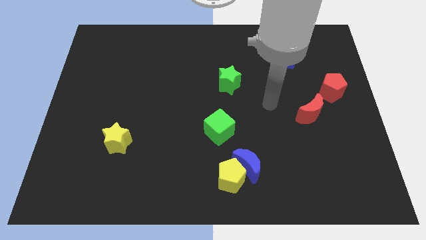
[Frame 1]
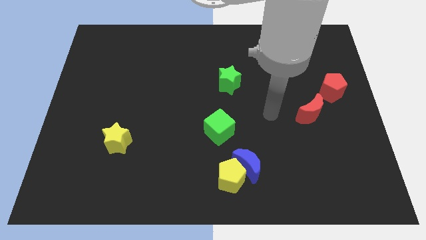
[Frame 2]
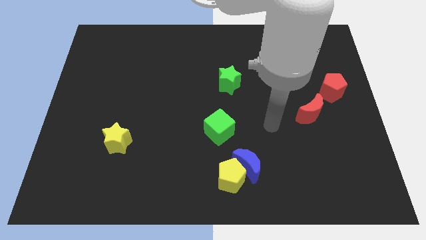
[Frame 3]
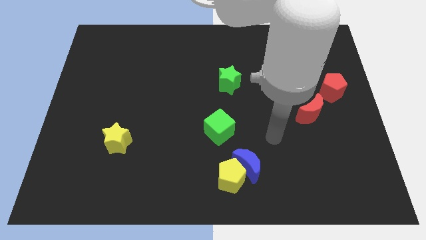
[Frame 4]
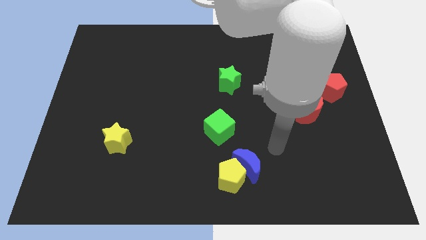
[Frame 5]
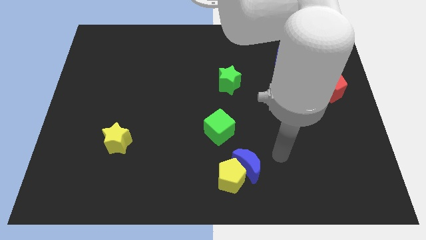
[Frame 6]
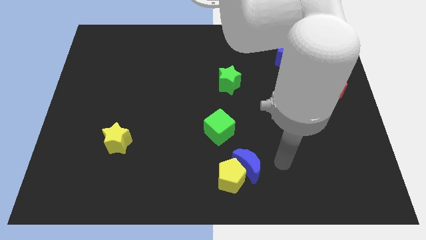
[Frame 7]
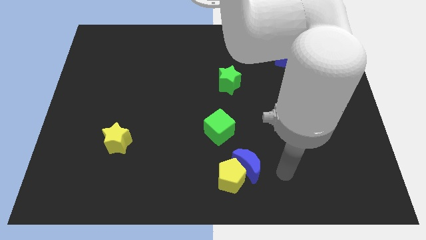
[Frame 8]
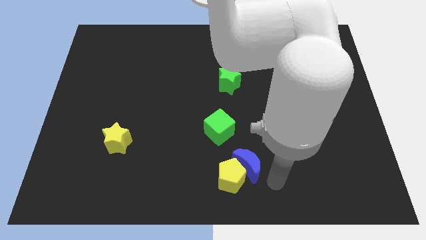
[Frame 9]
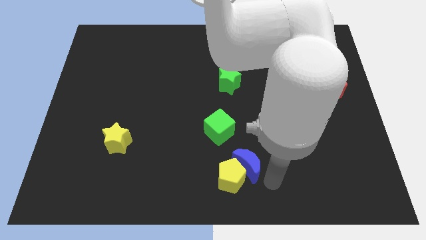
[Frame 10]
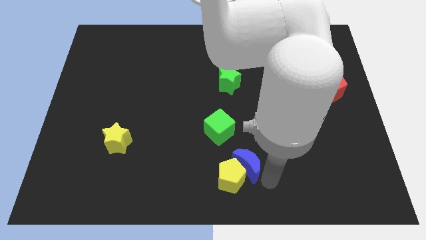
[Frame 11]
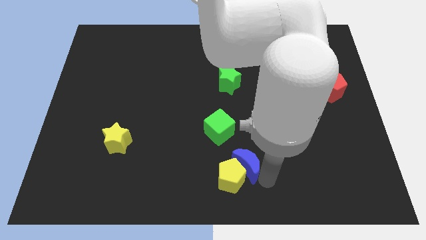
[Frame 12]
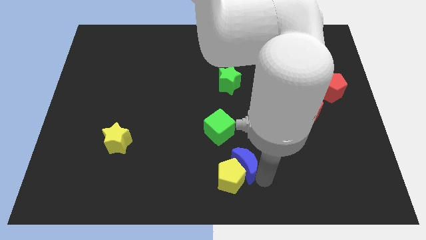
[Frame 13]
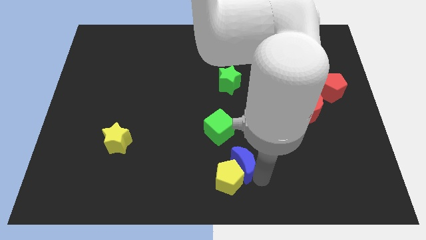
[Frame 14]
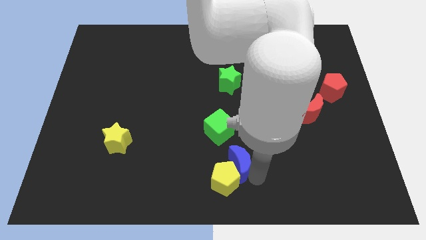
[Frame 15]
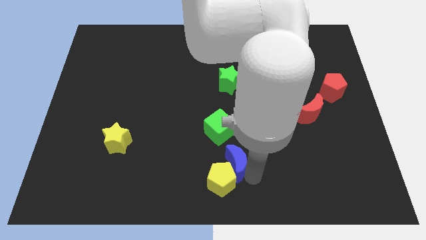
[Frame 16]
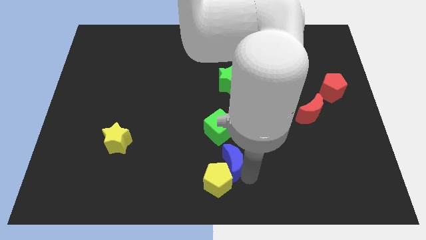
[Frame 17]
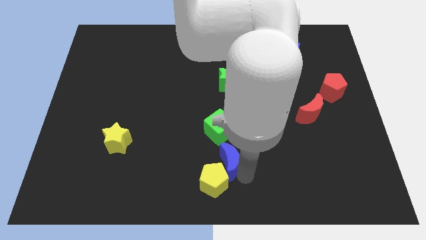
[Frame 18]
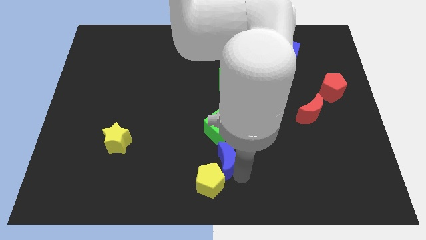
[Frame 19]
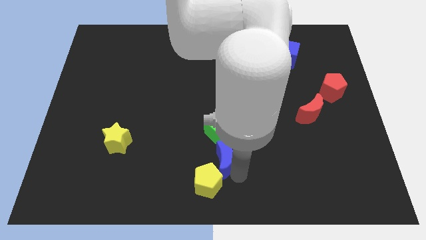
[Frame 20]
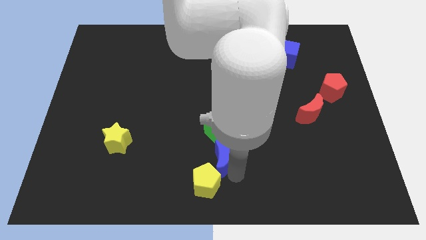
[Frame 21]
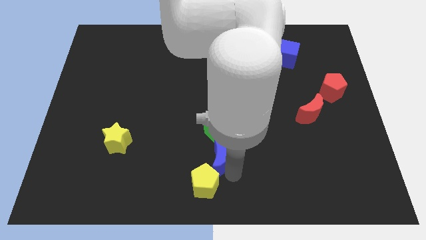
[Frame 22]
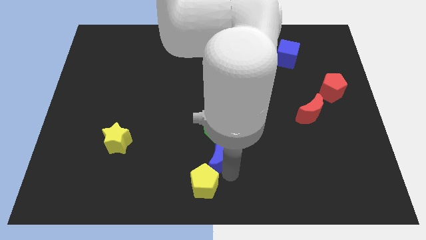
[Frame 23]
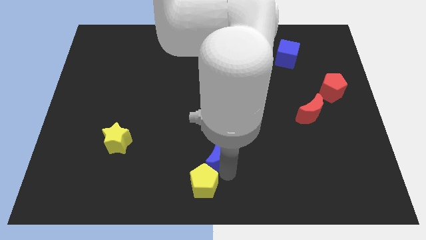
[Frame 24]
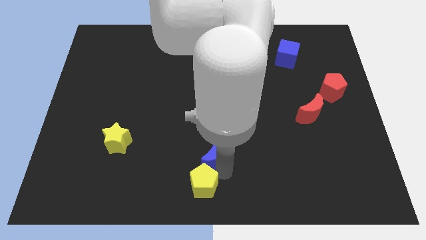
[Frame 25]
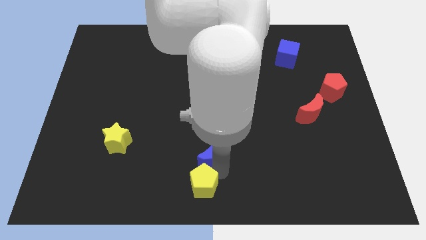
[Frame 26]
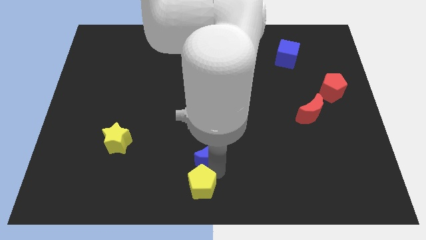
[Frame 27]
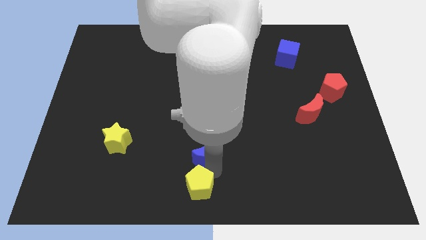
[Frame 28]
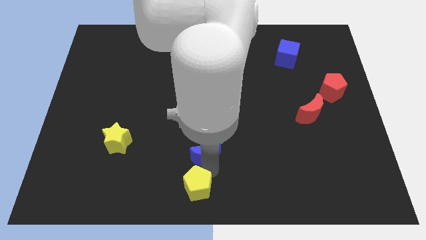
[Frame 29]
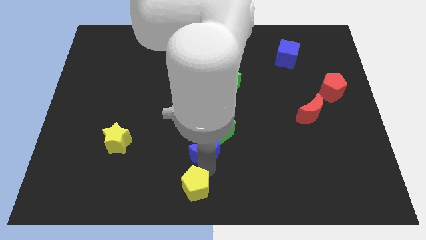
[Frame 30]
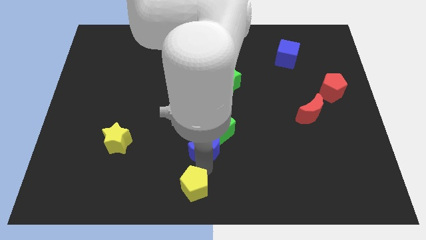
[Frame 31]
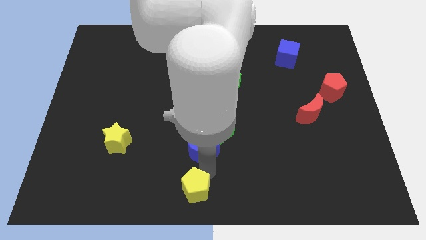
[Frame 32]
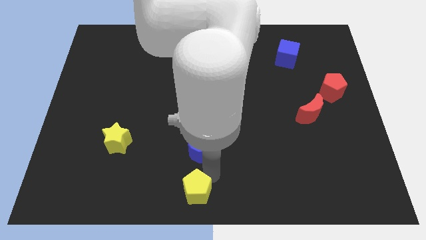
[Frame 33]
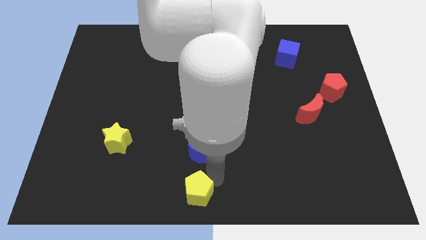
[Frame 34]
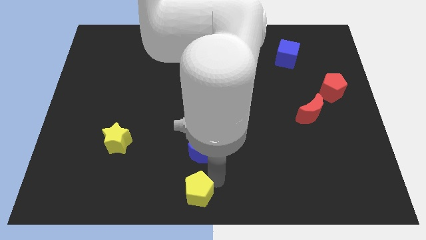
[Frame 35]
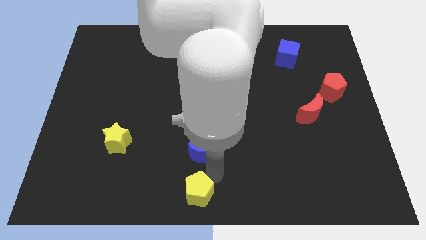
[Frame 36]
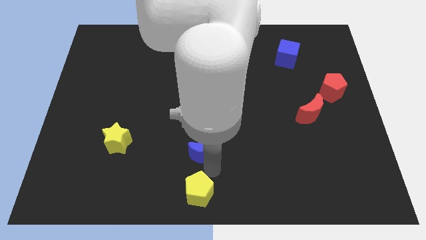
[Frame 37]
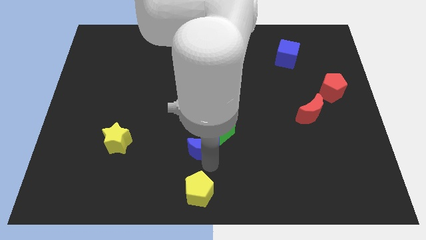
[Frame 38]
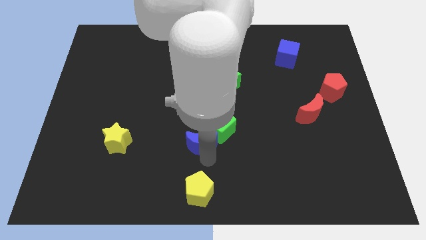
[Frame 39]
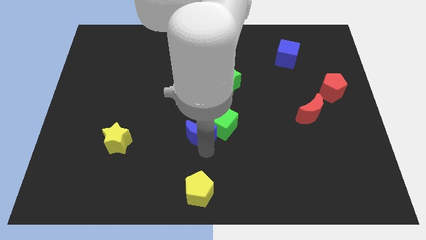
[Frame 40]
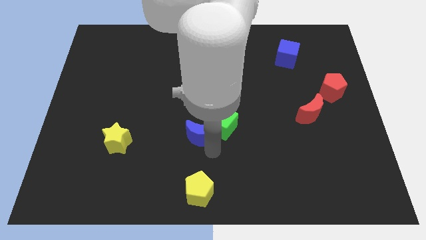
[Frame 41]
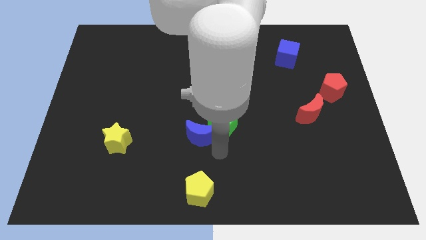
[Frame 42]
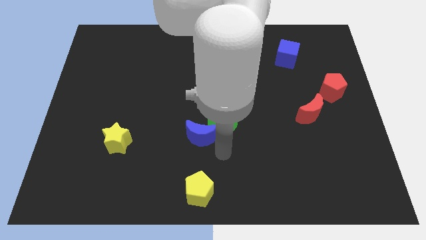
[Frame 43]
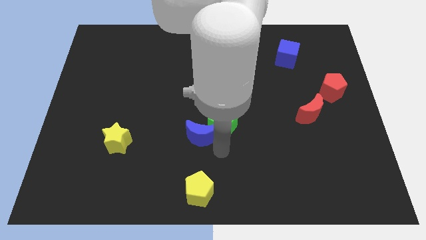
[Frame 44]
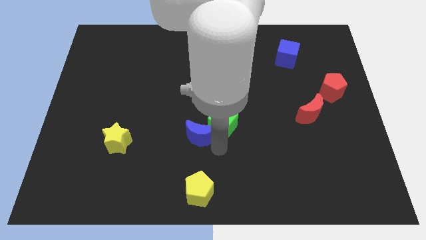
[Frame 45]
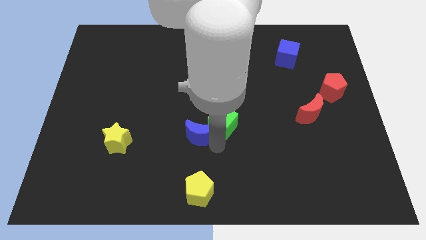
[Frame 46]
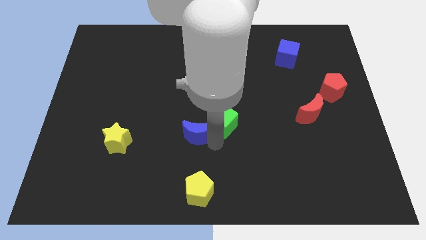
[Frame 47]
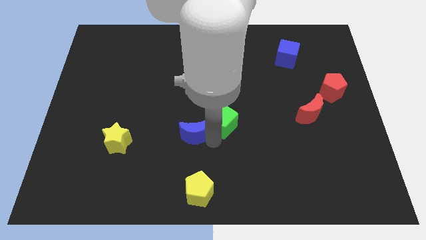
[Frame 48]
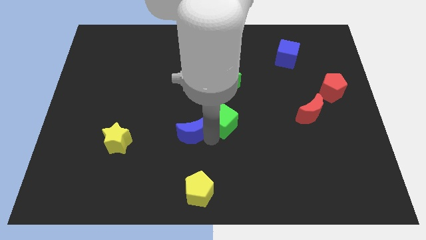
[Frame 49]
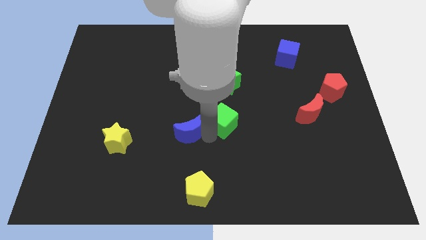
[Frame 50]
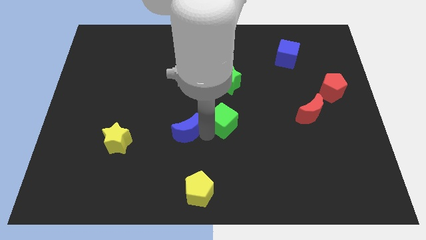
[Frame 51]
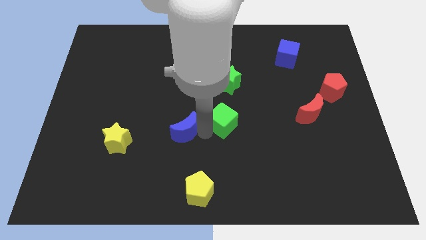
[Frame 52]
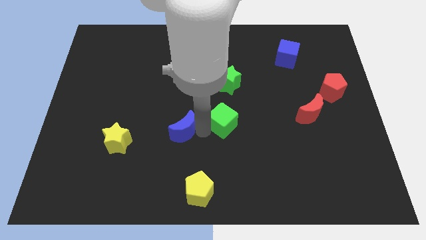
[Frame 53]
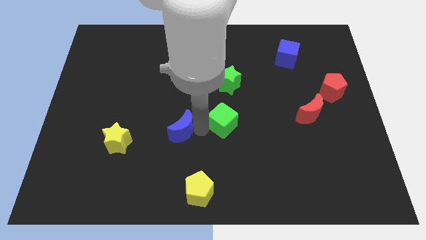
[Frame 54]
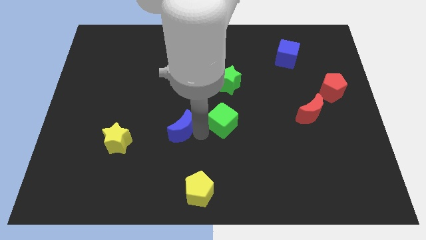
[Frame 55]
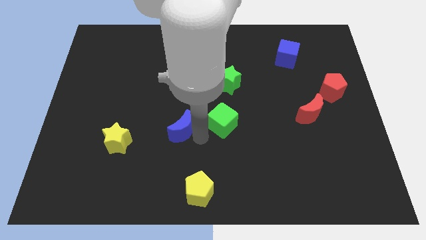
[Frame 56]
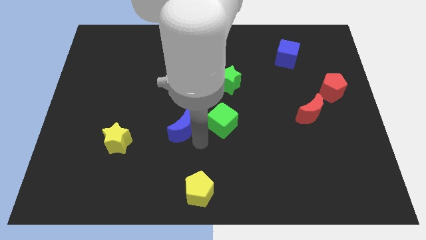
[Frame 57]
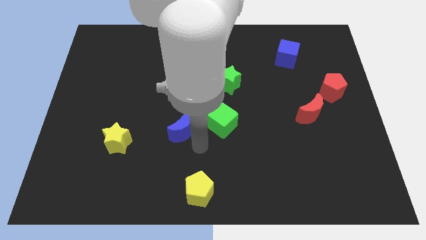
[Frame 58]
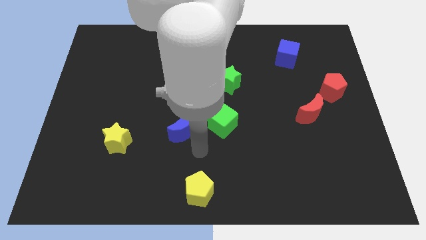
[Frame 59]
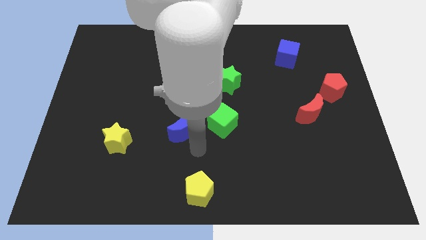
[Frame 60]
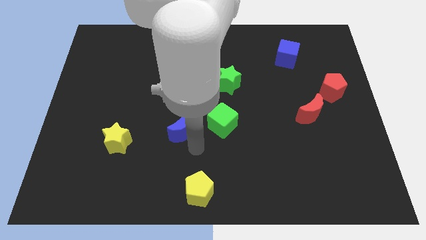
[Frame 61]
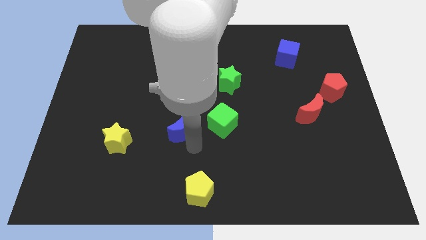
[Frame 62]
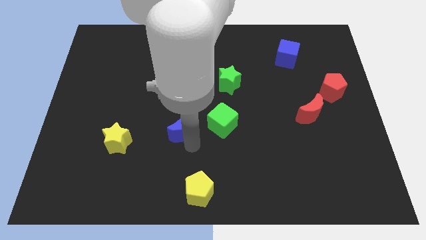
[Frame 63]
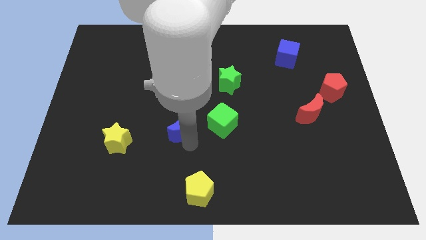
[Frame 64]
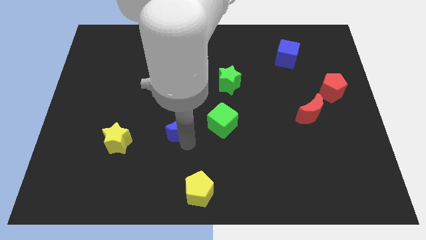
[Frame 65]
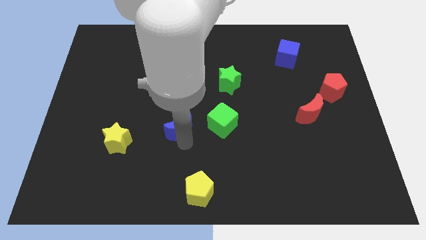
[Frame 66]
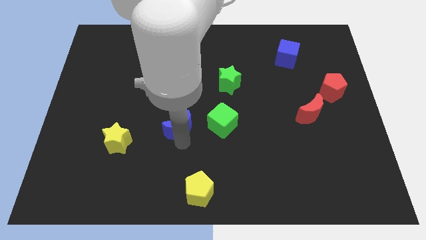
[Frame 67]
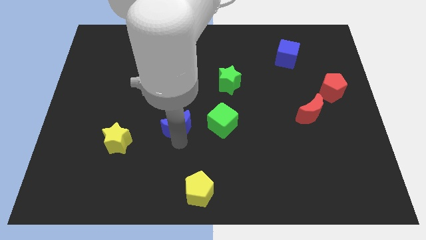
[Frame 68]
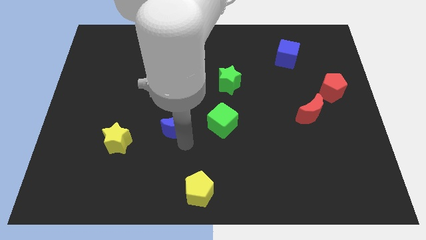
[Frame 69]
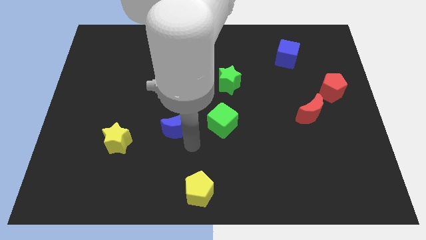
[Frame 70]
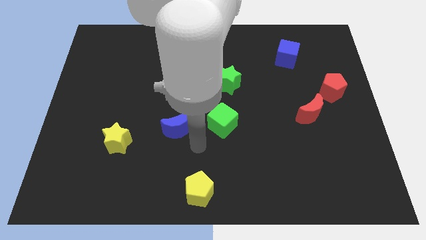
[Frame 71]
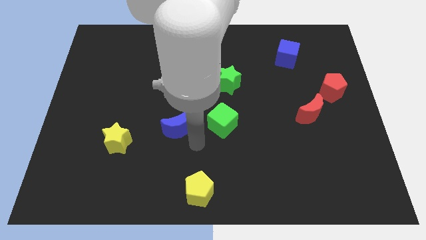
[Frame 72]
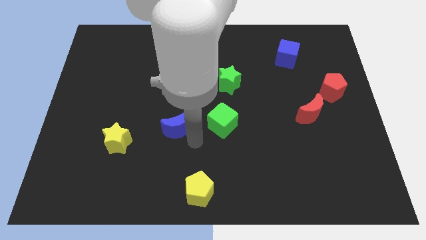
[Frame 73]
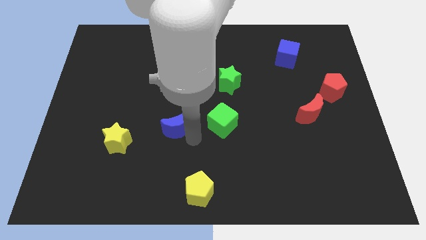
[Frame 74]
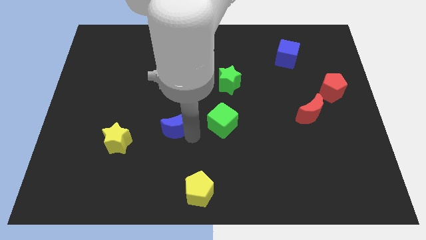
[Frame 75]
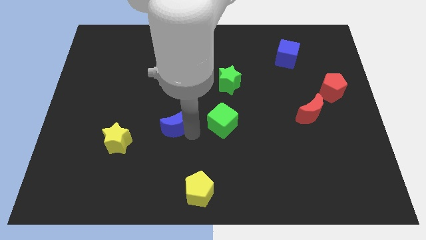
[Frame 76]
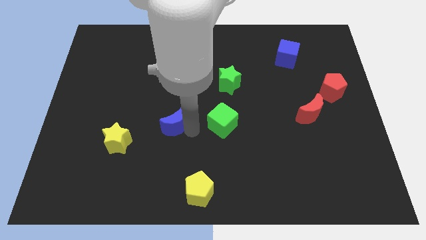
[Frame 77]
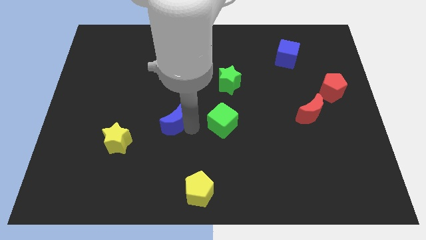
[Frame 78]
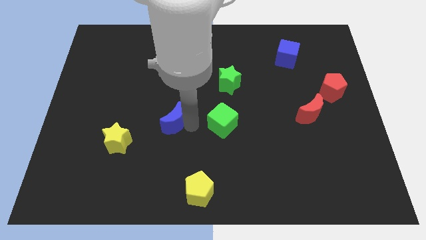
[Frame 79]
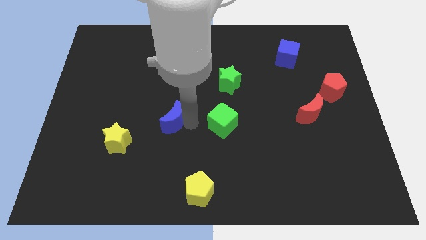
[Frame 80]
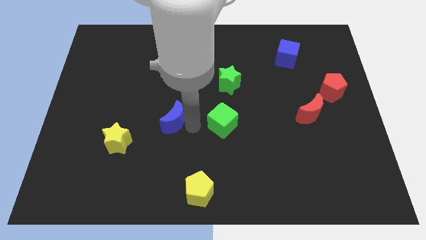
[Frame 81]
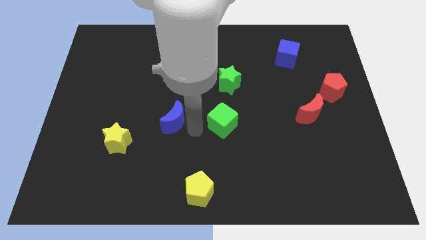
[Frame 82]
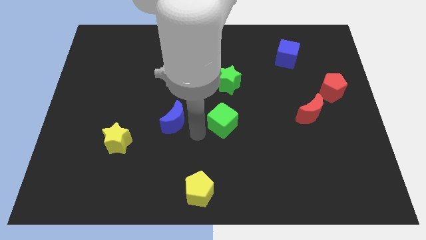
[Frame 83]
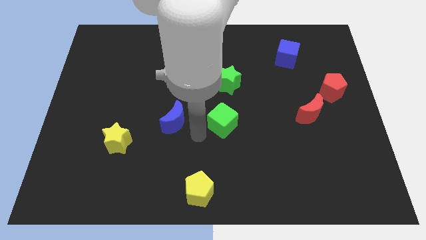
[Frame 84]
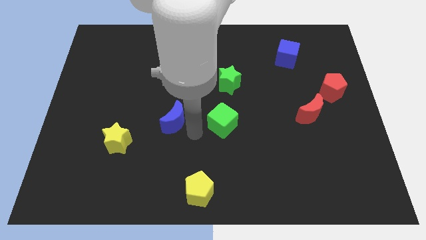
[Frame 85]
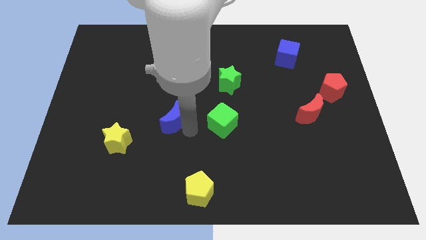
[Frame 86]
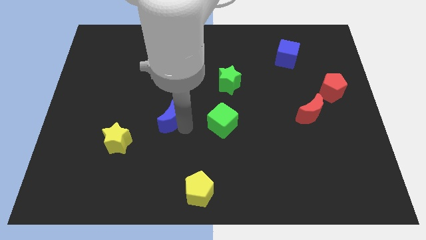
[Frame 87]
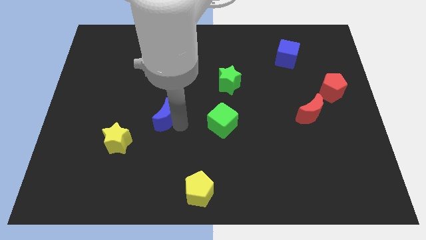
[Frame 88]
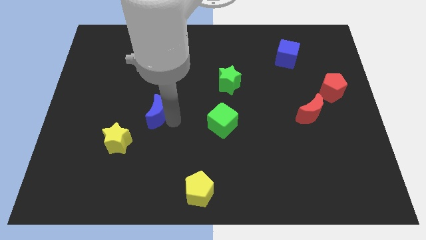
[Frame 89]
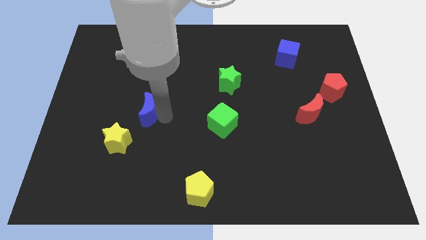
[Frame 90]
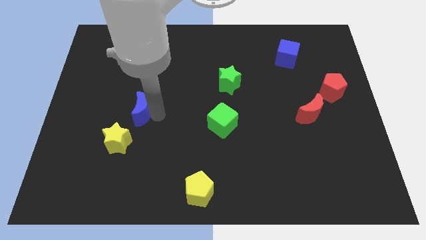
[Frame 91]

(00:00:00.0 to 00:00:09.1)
push the blue moon above the yellow star
